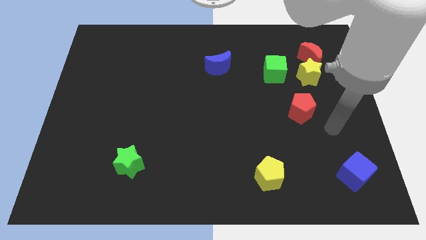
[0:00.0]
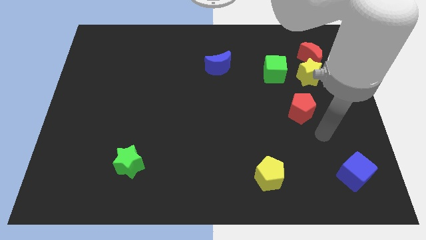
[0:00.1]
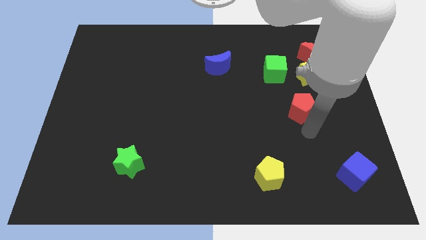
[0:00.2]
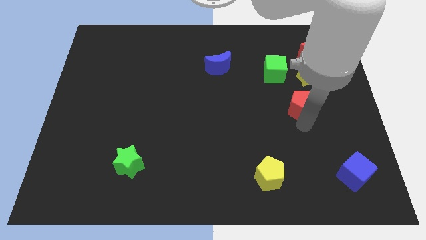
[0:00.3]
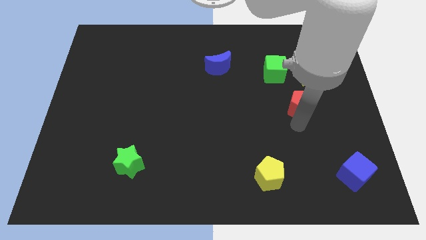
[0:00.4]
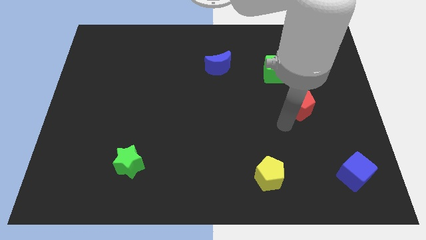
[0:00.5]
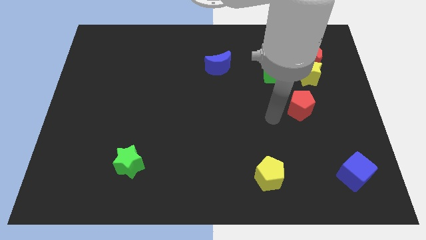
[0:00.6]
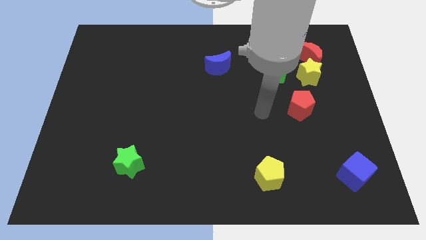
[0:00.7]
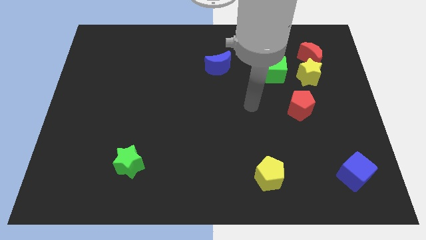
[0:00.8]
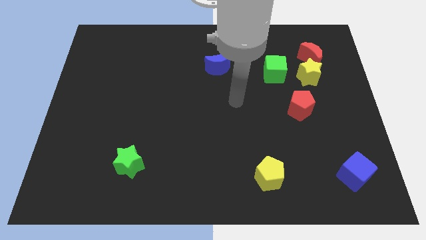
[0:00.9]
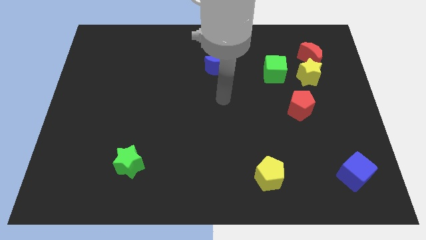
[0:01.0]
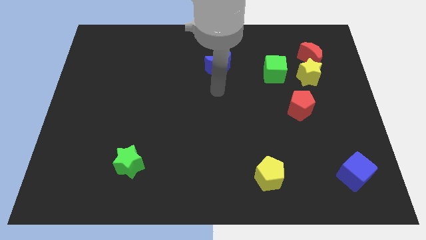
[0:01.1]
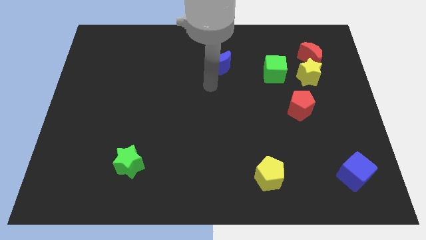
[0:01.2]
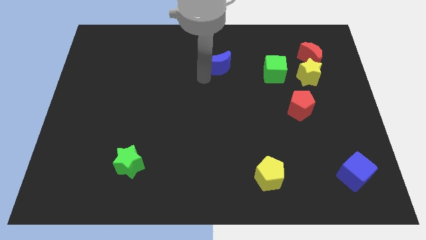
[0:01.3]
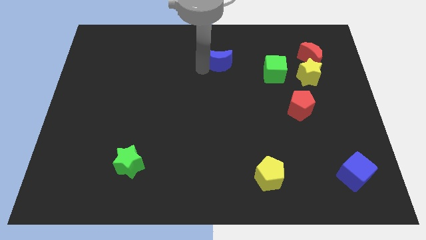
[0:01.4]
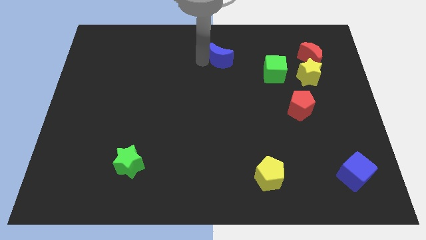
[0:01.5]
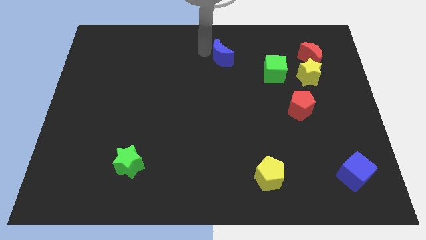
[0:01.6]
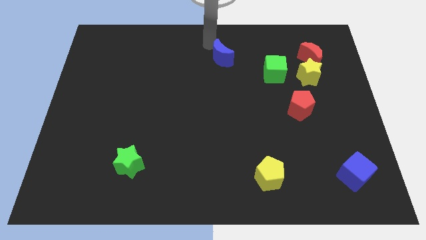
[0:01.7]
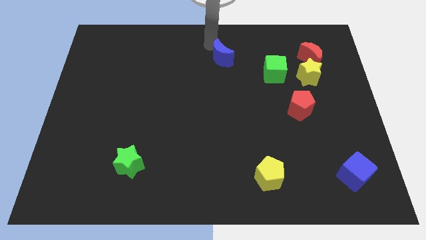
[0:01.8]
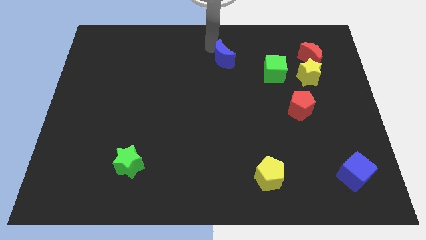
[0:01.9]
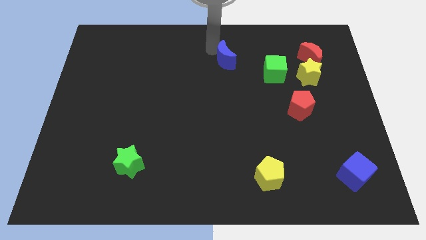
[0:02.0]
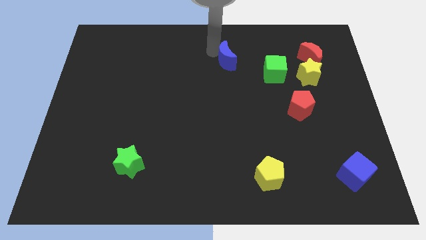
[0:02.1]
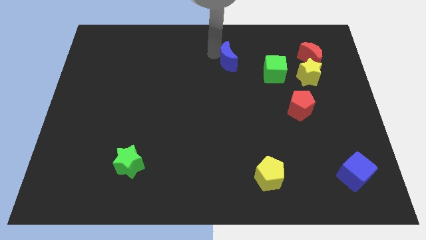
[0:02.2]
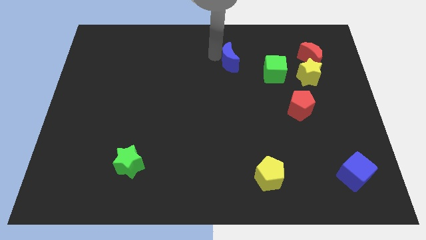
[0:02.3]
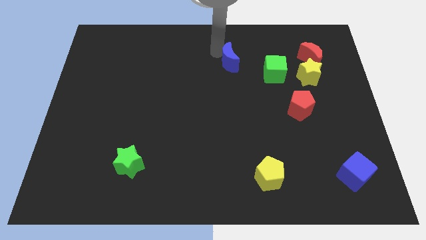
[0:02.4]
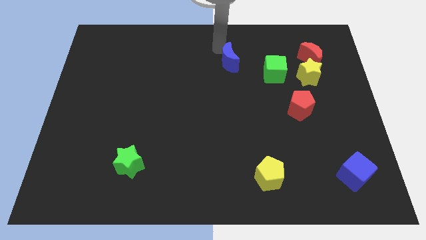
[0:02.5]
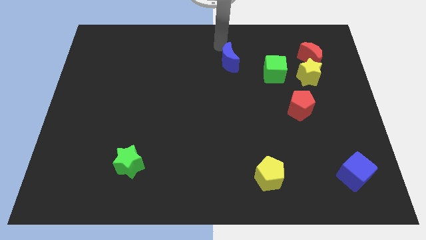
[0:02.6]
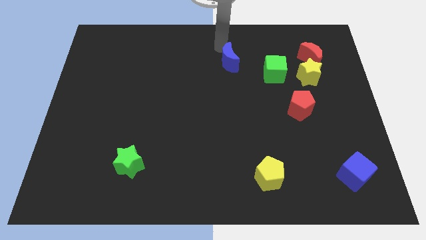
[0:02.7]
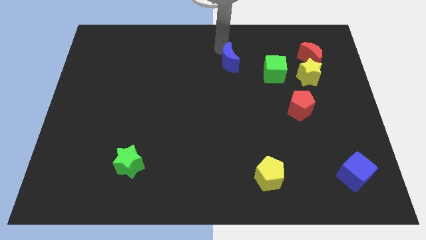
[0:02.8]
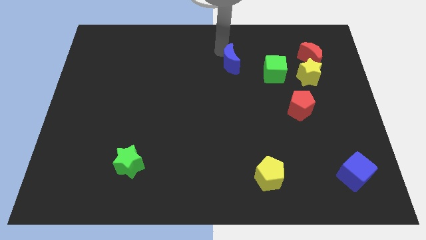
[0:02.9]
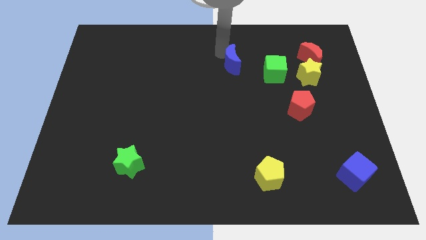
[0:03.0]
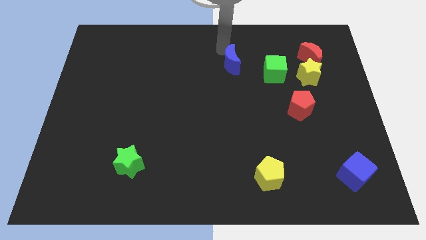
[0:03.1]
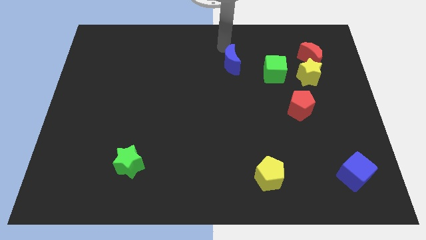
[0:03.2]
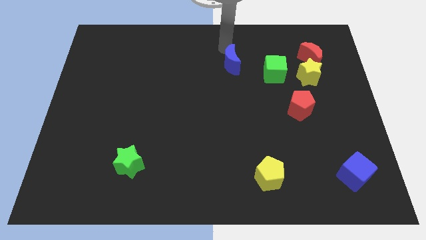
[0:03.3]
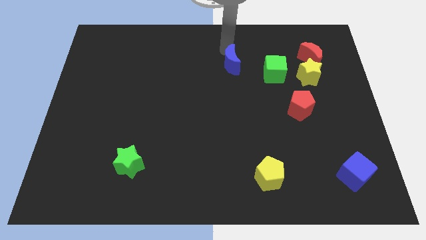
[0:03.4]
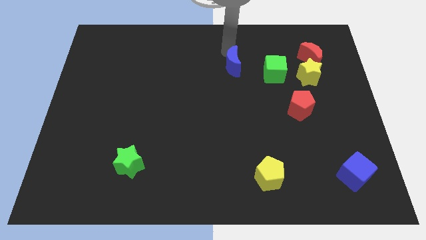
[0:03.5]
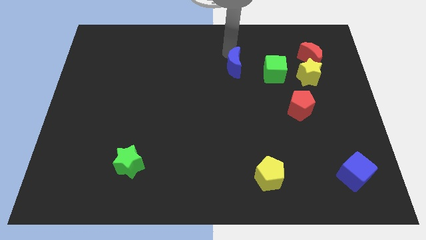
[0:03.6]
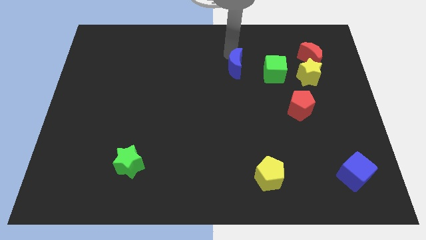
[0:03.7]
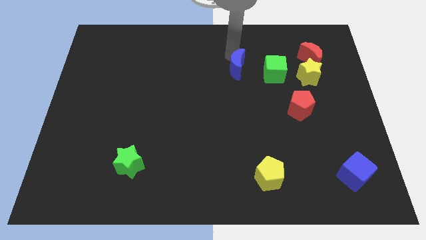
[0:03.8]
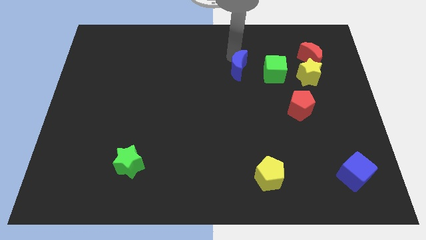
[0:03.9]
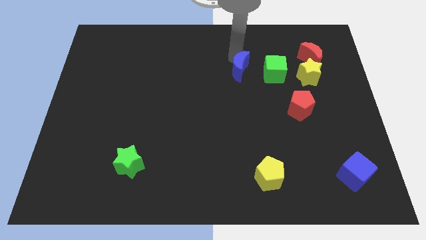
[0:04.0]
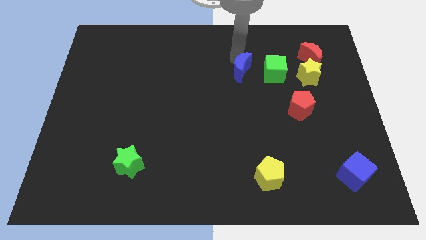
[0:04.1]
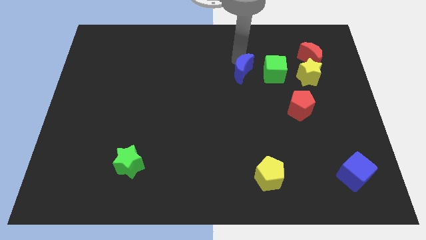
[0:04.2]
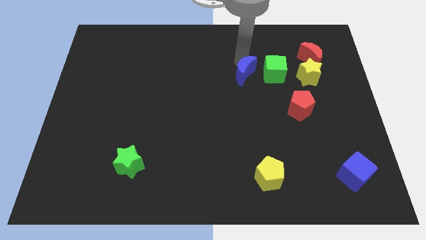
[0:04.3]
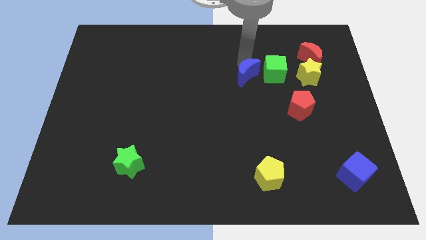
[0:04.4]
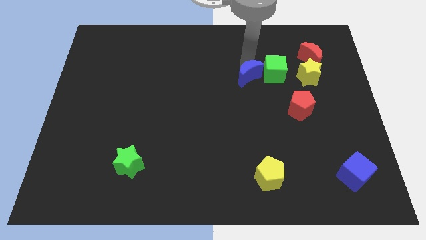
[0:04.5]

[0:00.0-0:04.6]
slightly move the blue moon diagonally downwards and to the right

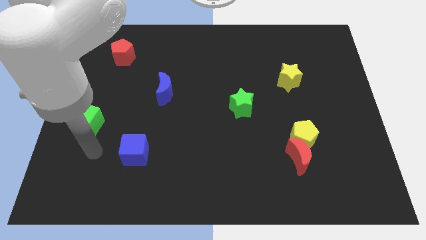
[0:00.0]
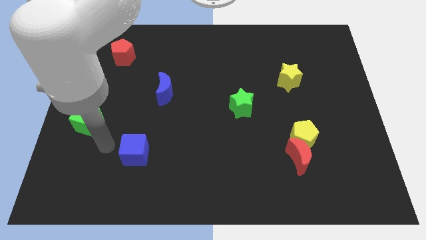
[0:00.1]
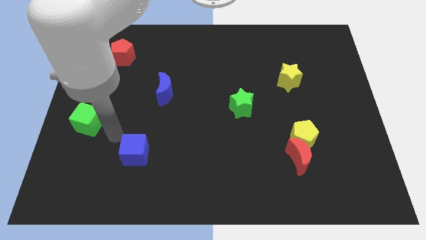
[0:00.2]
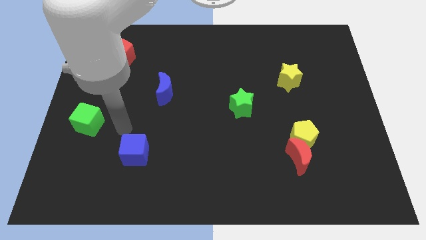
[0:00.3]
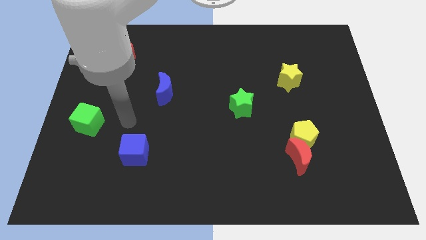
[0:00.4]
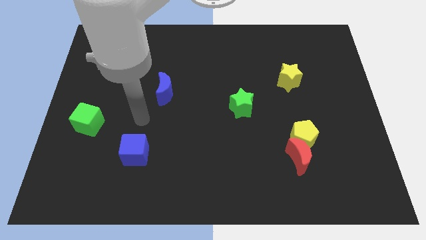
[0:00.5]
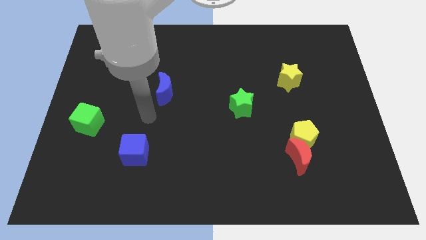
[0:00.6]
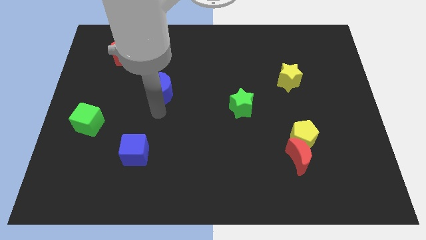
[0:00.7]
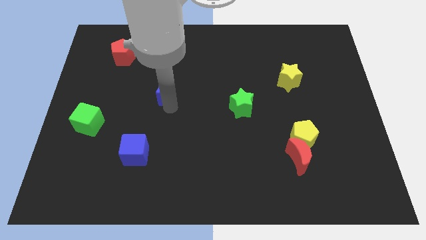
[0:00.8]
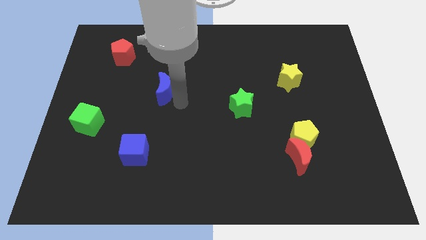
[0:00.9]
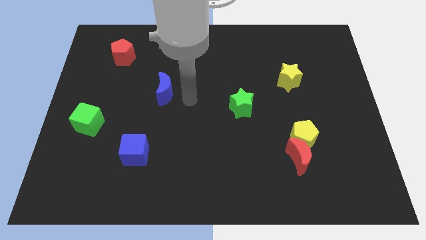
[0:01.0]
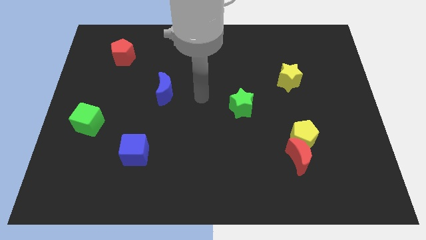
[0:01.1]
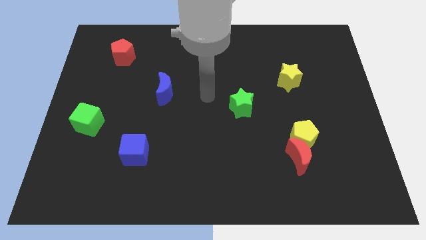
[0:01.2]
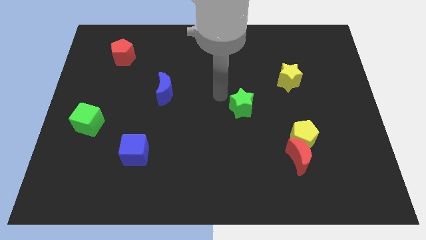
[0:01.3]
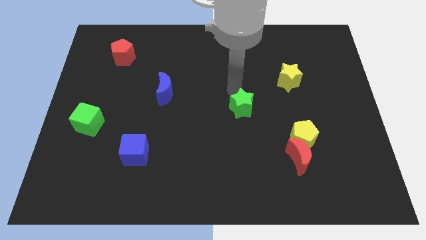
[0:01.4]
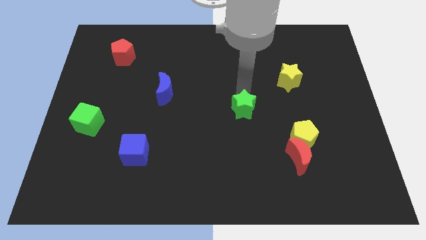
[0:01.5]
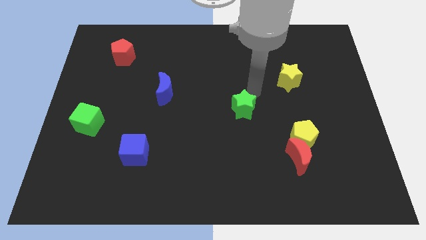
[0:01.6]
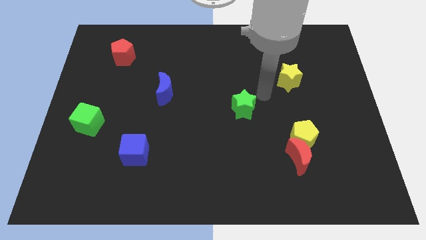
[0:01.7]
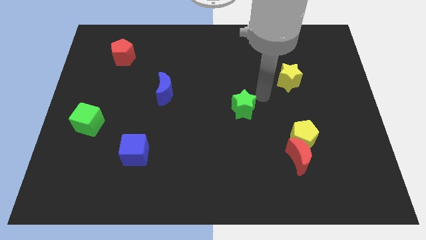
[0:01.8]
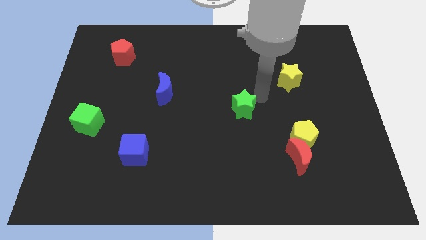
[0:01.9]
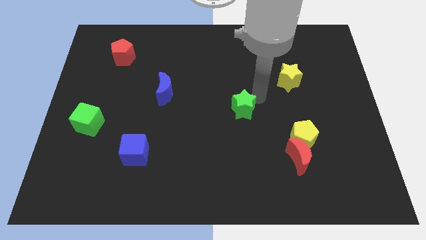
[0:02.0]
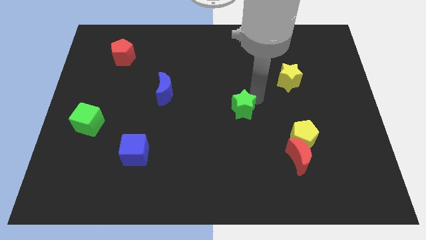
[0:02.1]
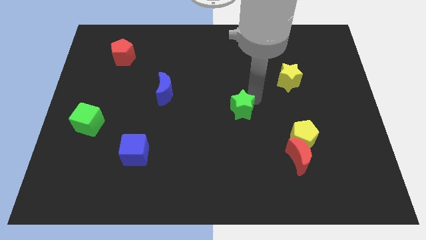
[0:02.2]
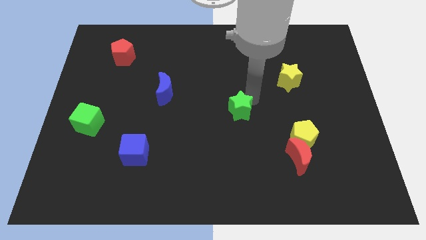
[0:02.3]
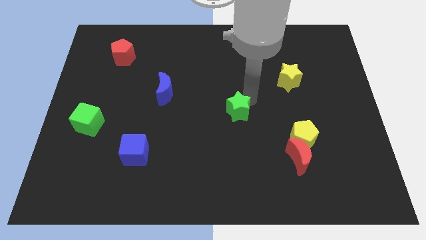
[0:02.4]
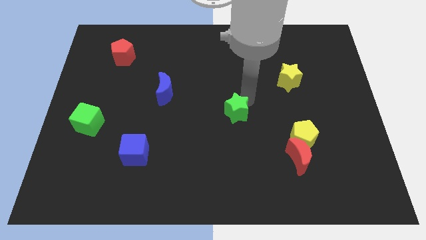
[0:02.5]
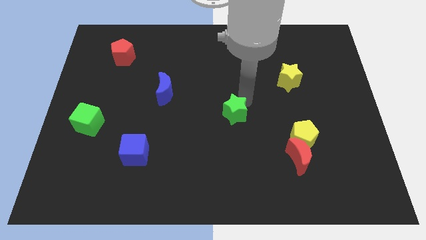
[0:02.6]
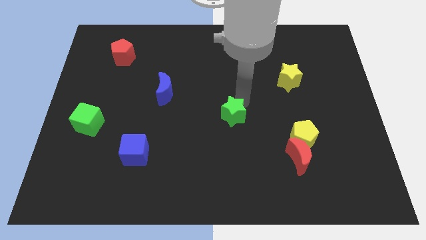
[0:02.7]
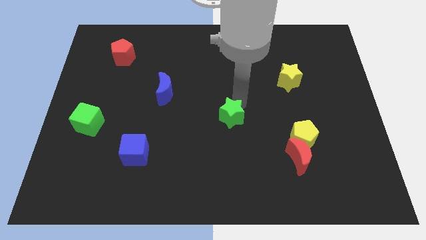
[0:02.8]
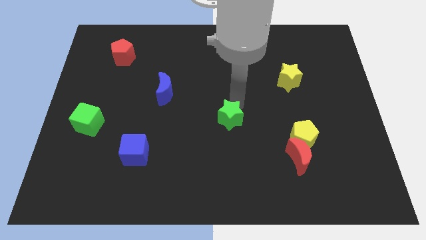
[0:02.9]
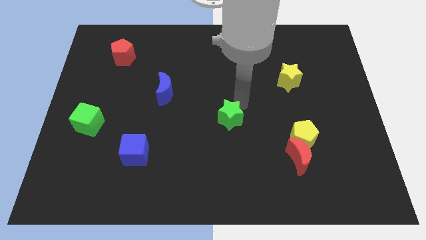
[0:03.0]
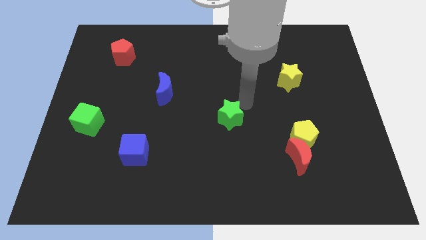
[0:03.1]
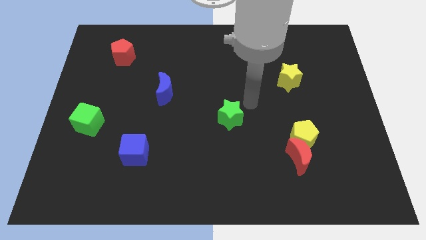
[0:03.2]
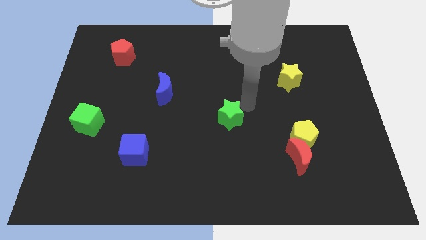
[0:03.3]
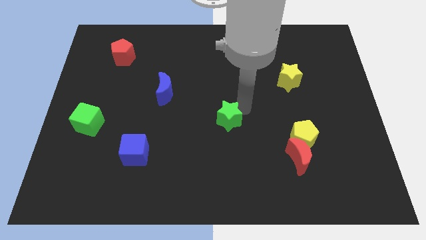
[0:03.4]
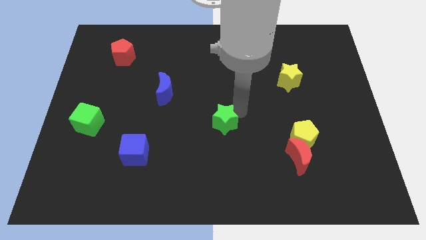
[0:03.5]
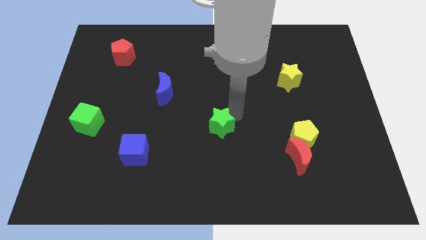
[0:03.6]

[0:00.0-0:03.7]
slightly move the green star diagonally down and left

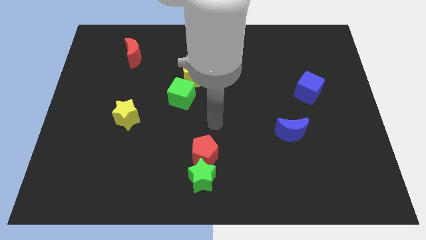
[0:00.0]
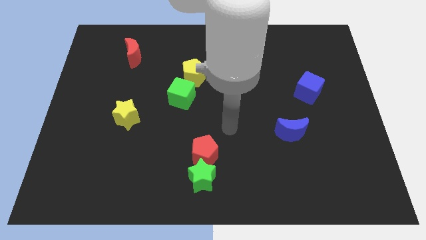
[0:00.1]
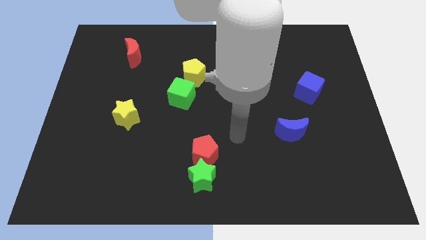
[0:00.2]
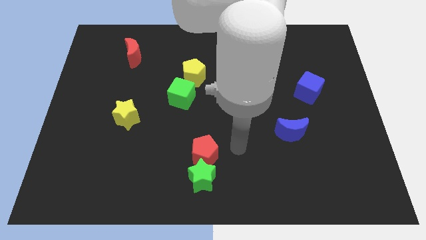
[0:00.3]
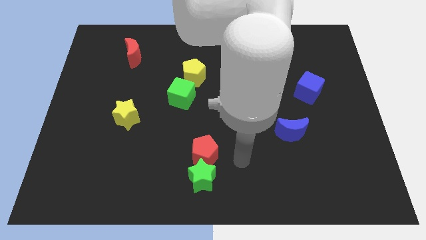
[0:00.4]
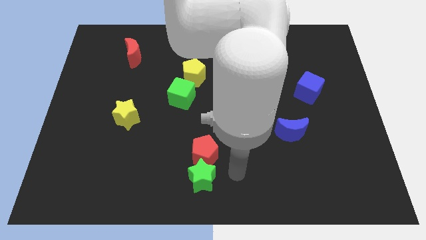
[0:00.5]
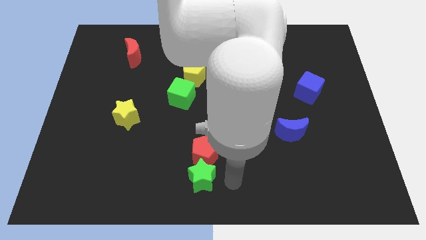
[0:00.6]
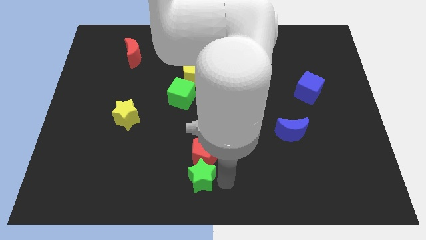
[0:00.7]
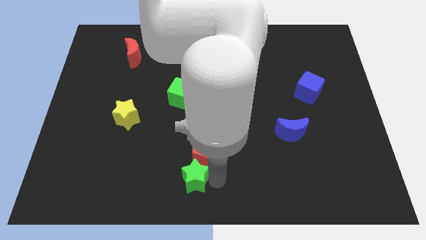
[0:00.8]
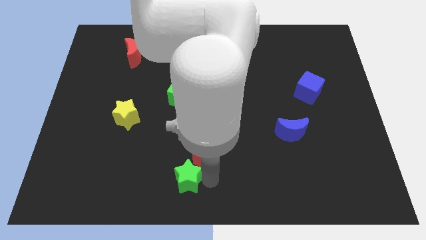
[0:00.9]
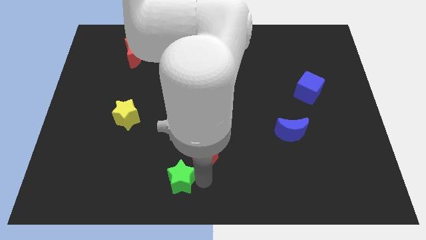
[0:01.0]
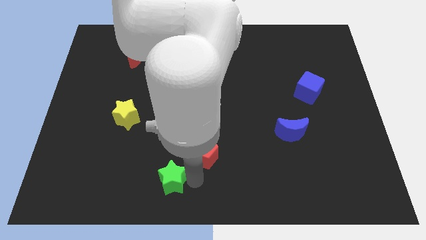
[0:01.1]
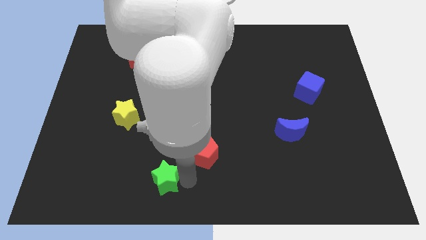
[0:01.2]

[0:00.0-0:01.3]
move the green star a little left
